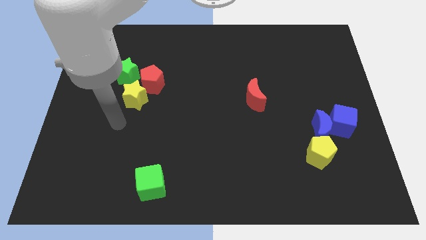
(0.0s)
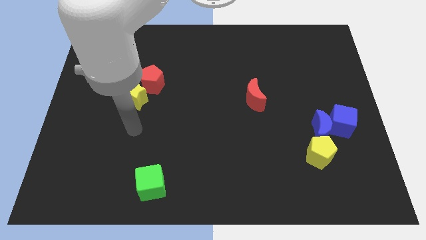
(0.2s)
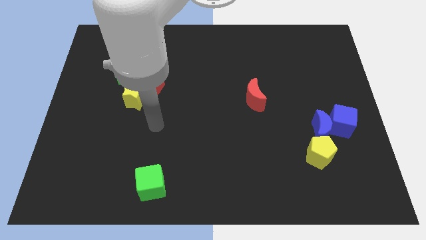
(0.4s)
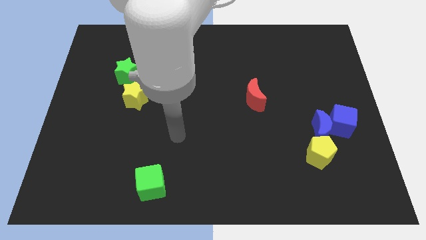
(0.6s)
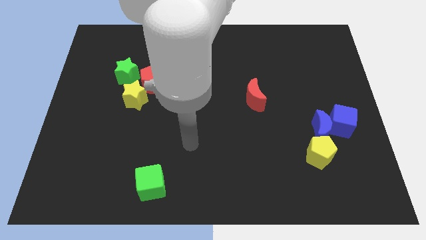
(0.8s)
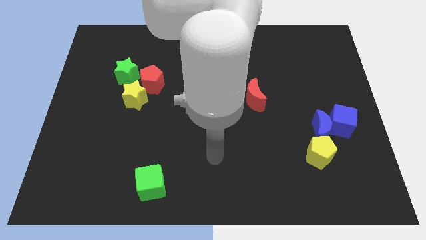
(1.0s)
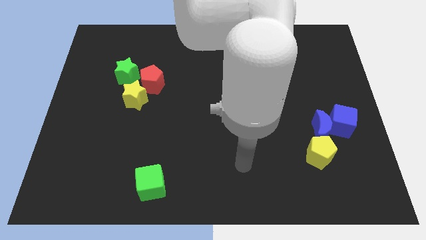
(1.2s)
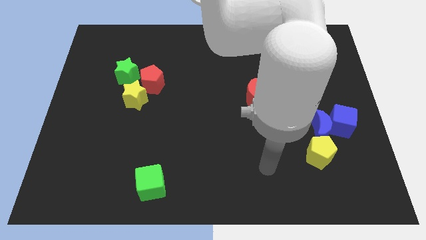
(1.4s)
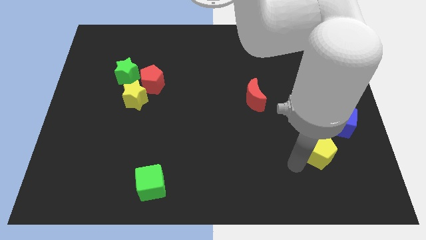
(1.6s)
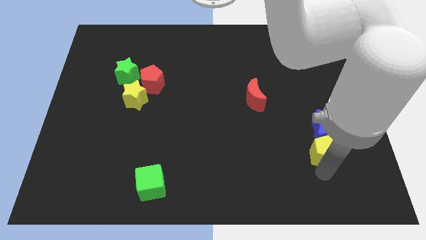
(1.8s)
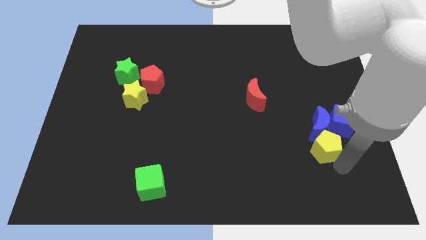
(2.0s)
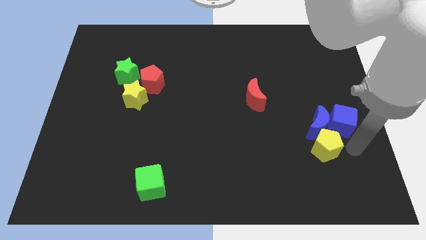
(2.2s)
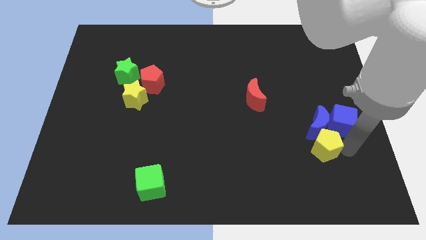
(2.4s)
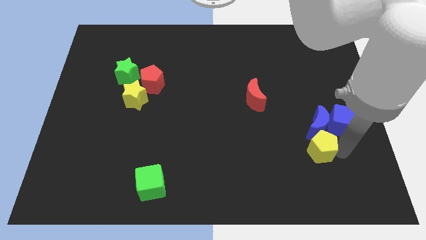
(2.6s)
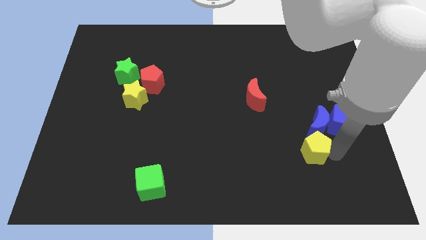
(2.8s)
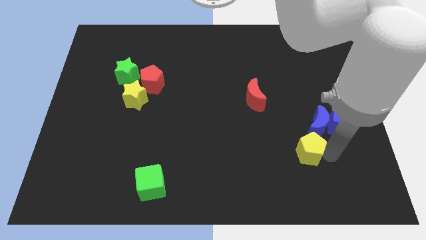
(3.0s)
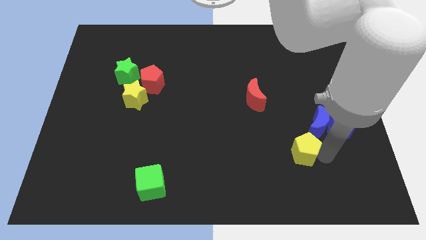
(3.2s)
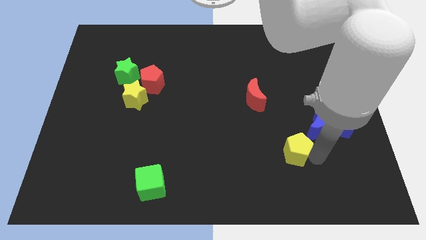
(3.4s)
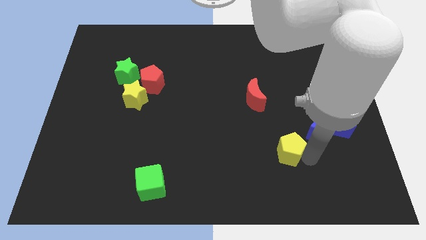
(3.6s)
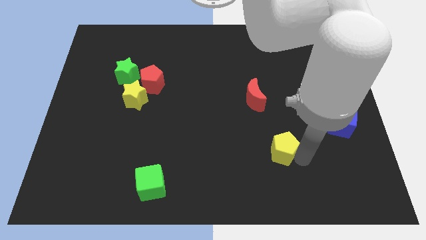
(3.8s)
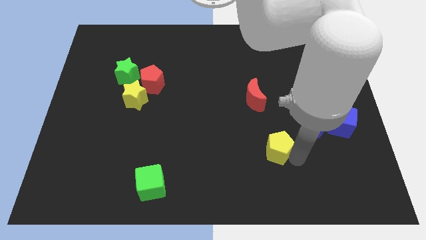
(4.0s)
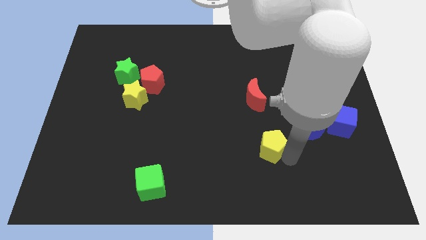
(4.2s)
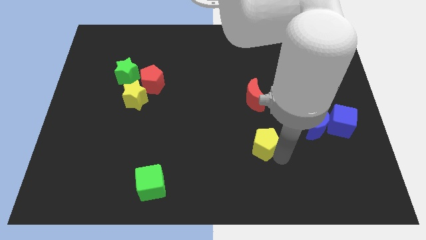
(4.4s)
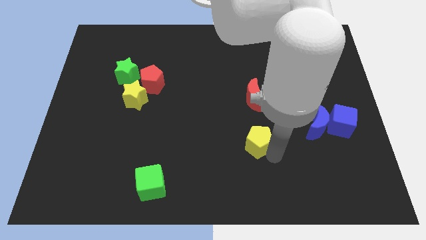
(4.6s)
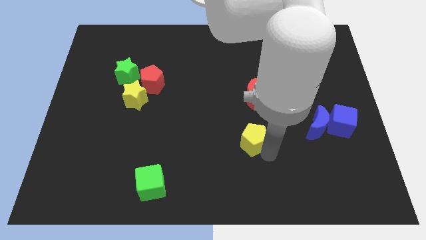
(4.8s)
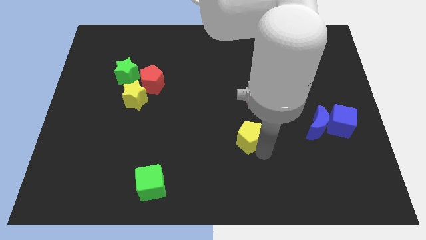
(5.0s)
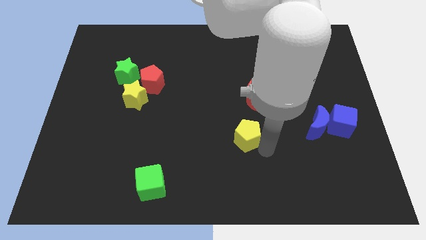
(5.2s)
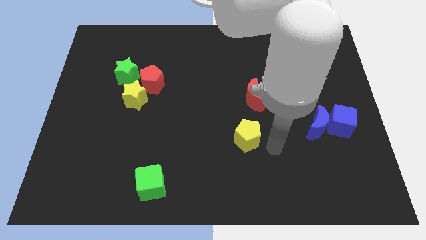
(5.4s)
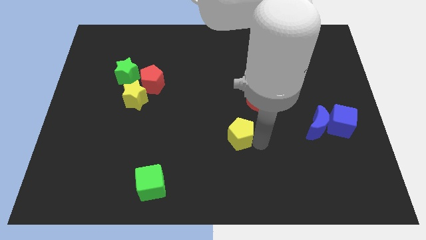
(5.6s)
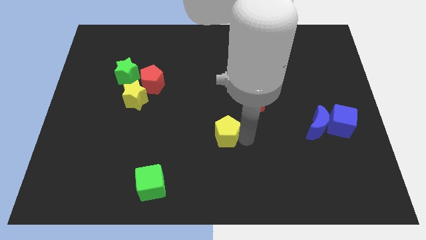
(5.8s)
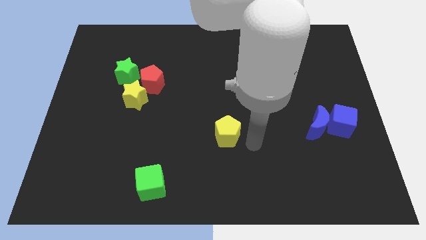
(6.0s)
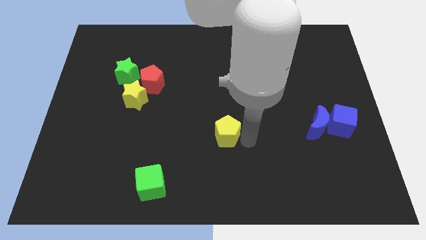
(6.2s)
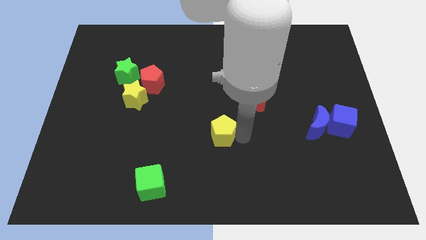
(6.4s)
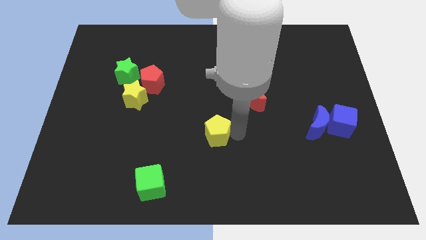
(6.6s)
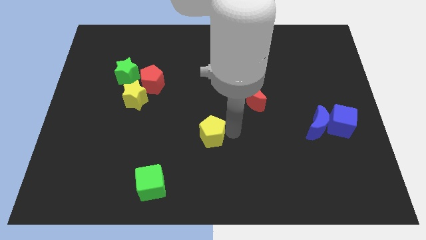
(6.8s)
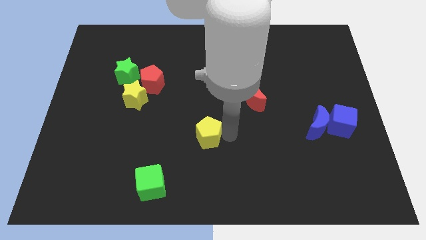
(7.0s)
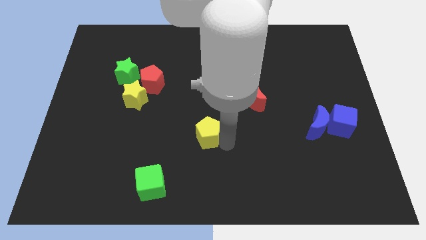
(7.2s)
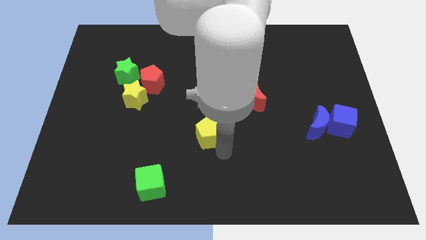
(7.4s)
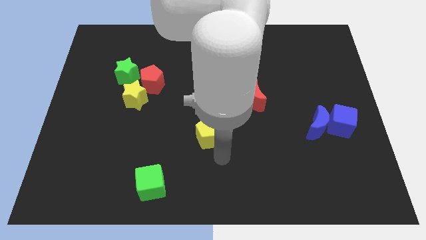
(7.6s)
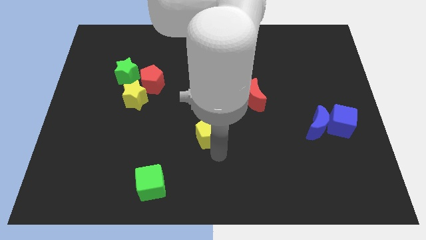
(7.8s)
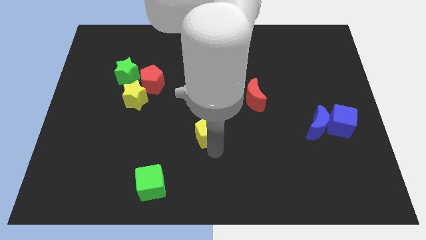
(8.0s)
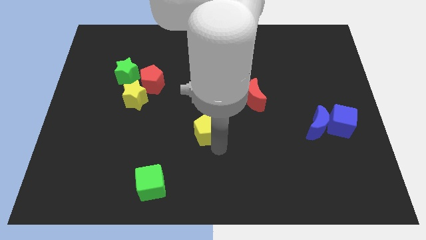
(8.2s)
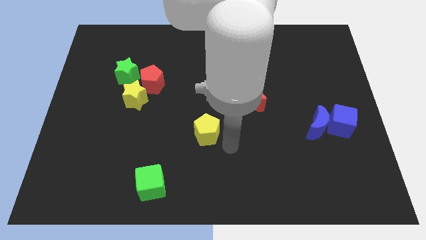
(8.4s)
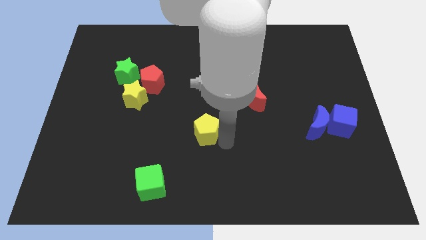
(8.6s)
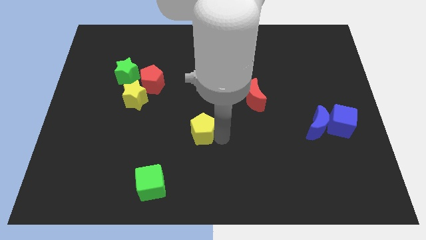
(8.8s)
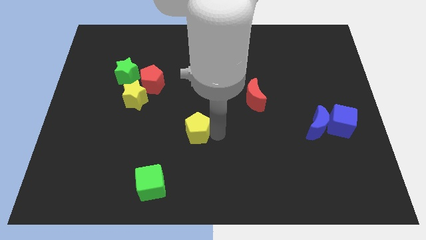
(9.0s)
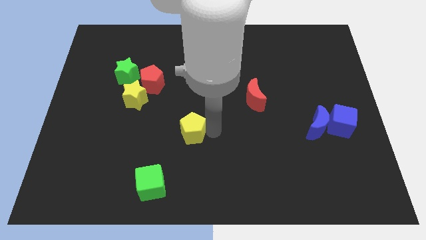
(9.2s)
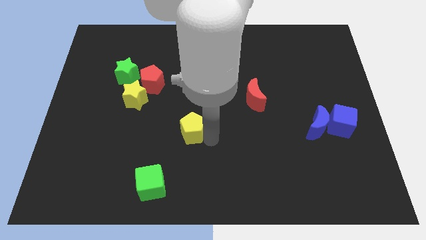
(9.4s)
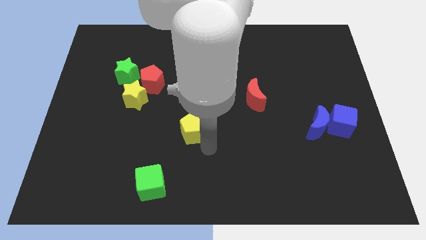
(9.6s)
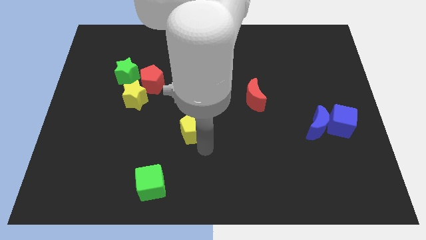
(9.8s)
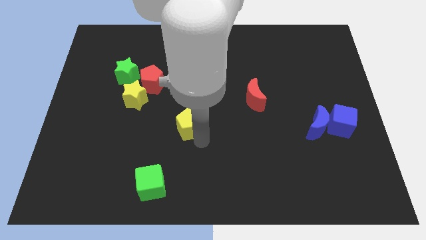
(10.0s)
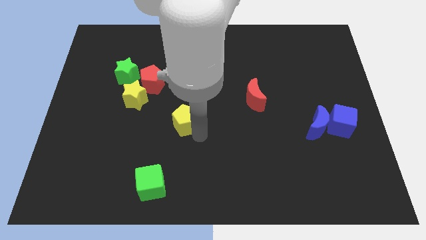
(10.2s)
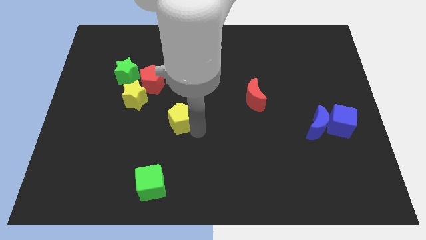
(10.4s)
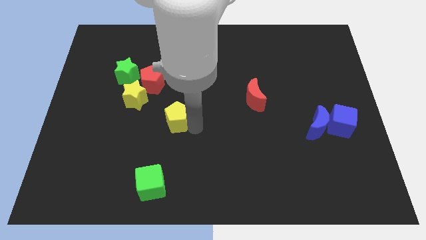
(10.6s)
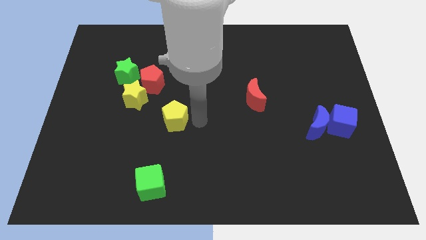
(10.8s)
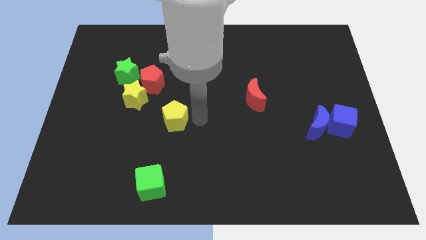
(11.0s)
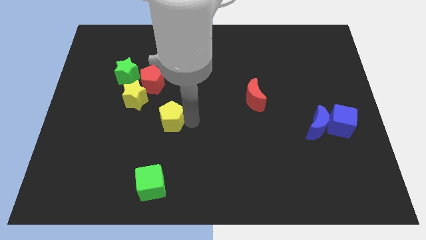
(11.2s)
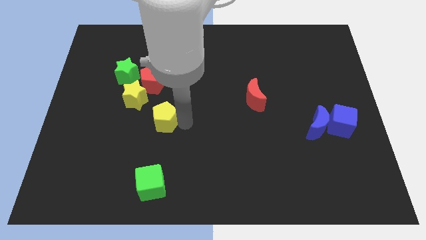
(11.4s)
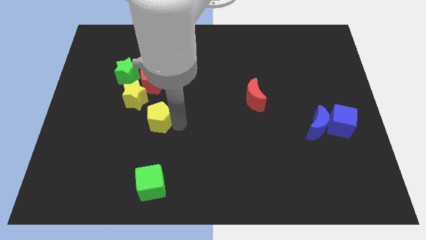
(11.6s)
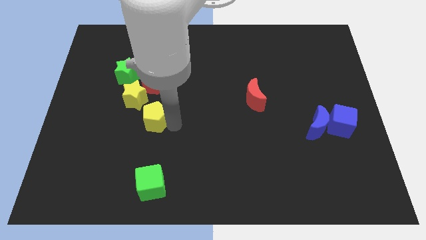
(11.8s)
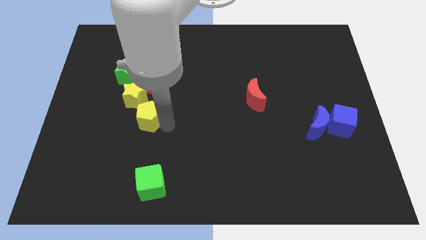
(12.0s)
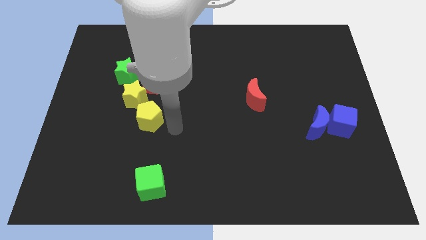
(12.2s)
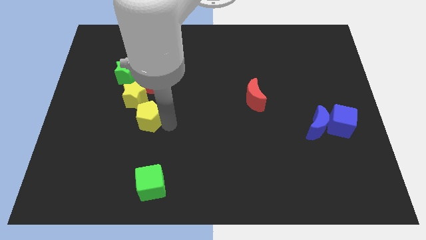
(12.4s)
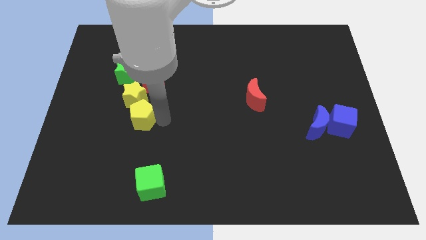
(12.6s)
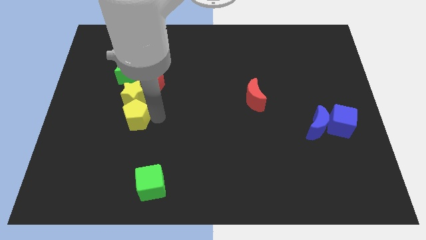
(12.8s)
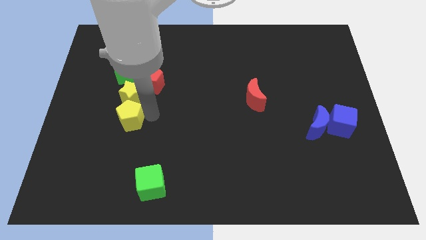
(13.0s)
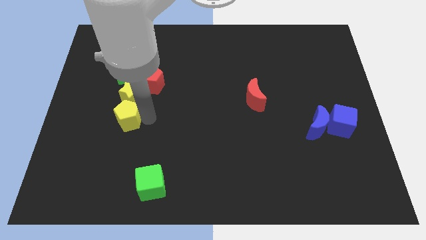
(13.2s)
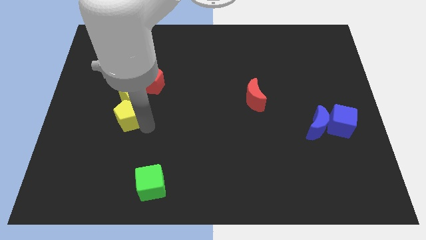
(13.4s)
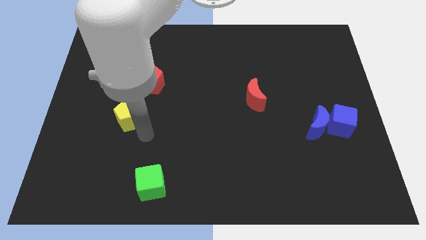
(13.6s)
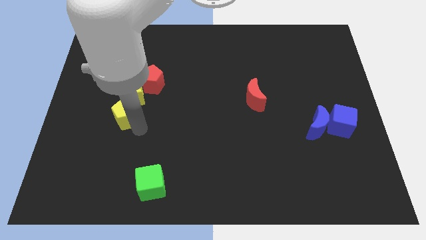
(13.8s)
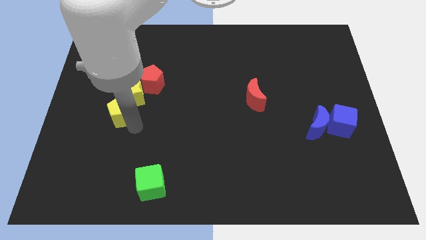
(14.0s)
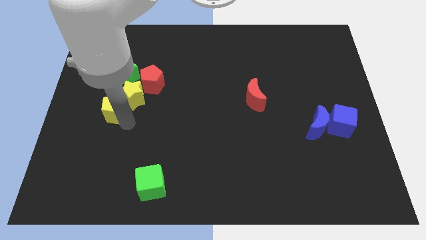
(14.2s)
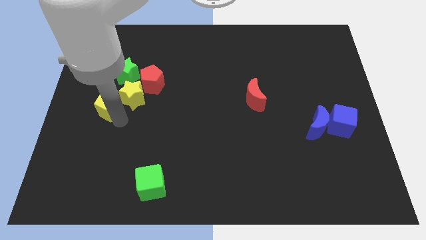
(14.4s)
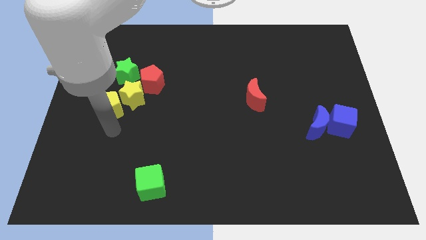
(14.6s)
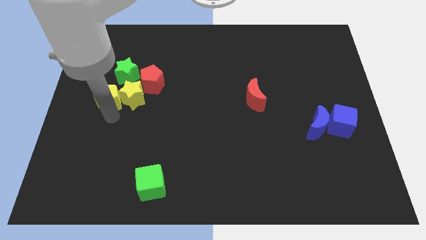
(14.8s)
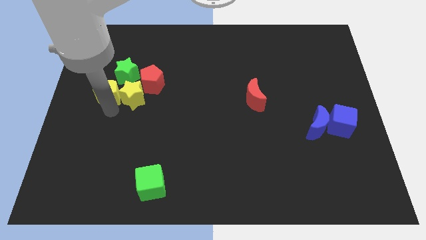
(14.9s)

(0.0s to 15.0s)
push the yellow pentagon left of the red pentagon
